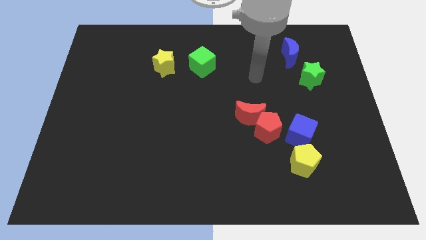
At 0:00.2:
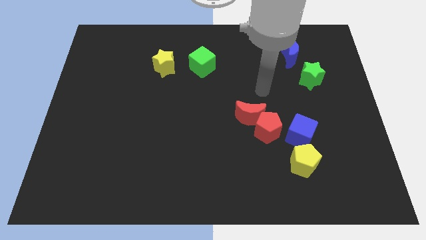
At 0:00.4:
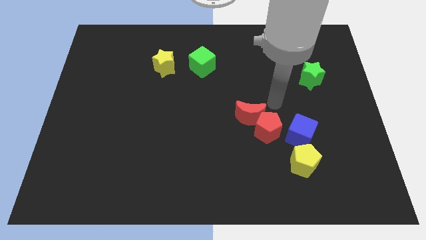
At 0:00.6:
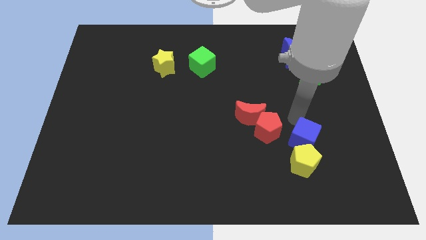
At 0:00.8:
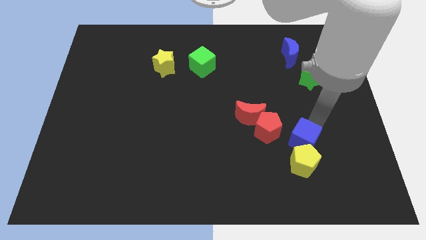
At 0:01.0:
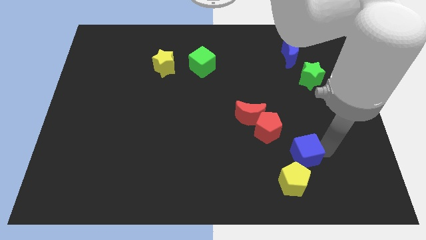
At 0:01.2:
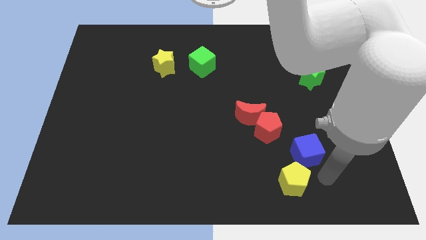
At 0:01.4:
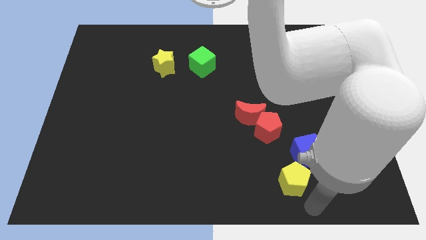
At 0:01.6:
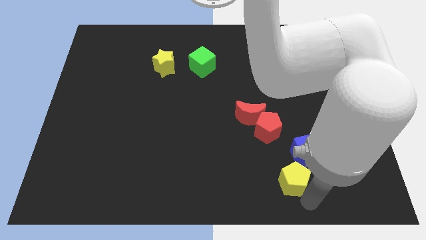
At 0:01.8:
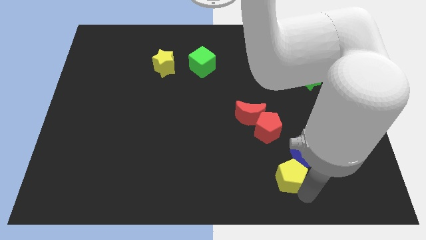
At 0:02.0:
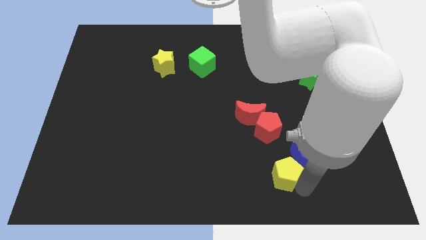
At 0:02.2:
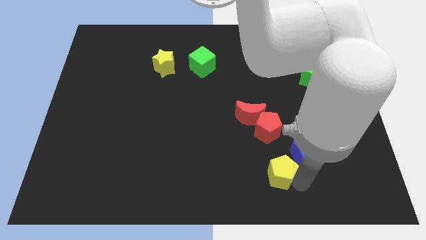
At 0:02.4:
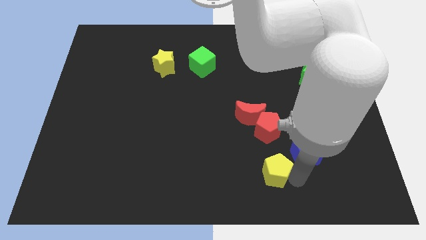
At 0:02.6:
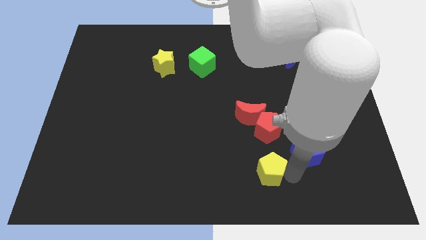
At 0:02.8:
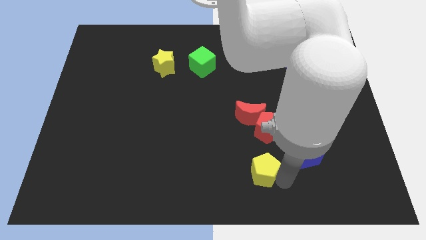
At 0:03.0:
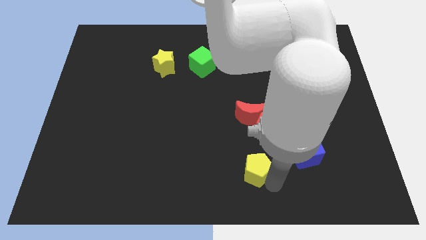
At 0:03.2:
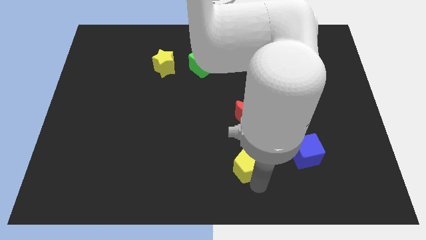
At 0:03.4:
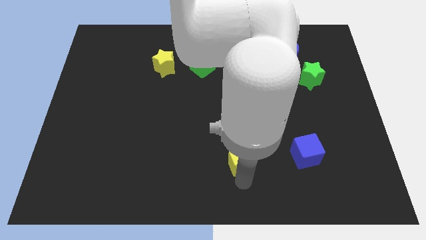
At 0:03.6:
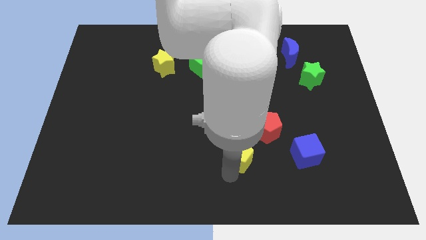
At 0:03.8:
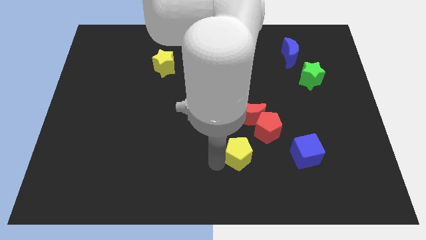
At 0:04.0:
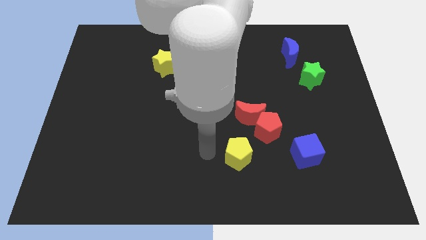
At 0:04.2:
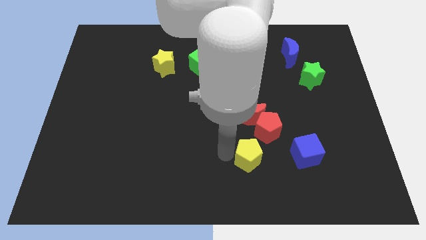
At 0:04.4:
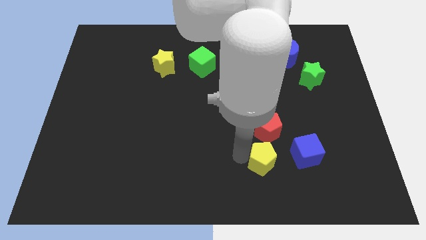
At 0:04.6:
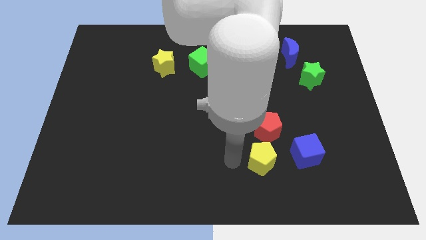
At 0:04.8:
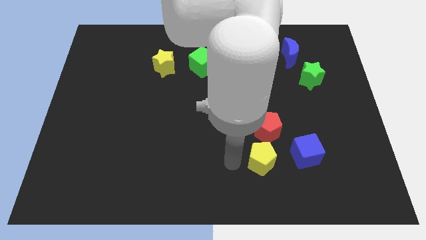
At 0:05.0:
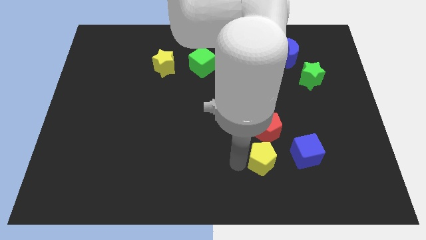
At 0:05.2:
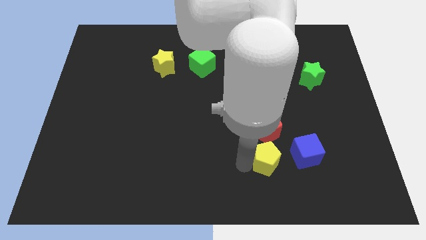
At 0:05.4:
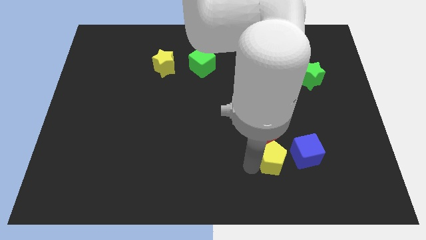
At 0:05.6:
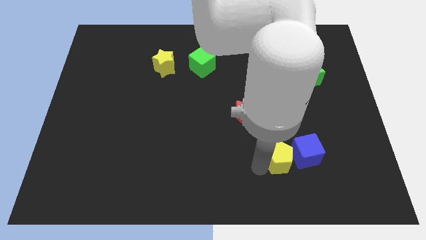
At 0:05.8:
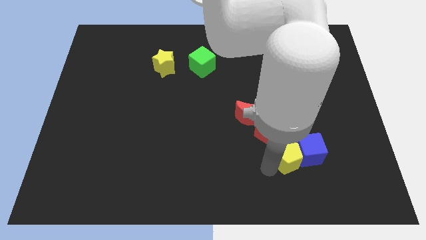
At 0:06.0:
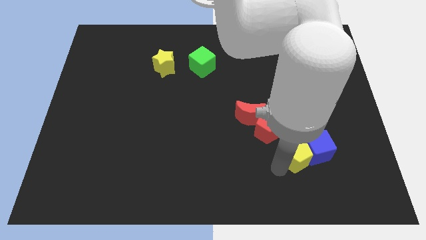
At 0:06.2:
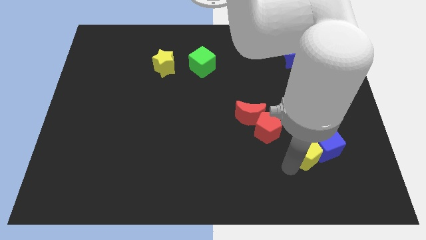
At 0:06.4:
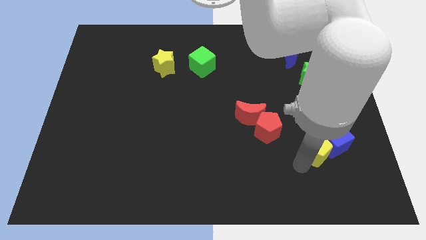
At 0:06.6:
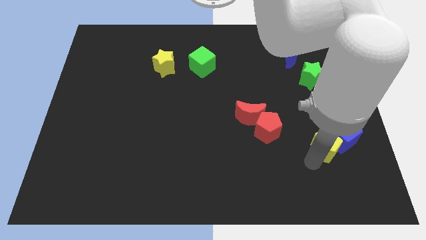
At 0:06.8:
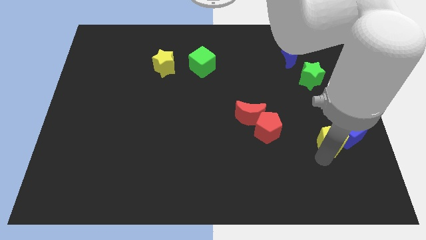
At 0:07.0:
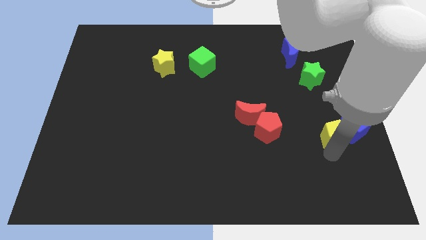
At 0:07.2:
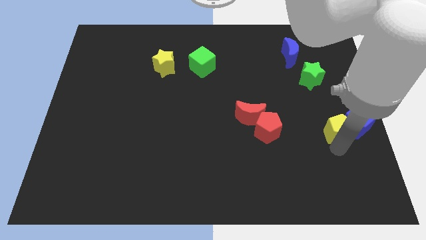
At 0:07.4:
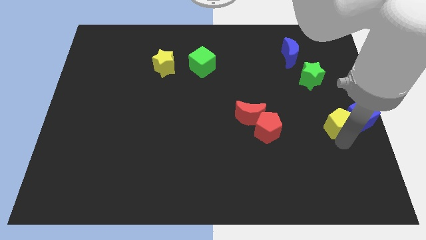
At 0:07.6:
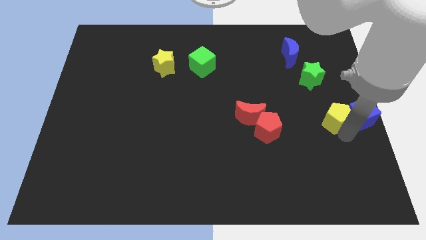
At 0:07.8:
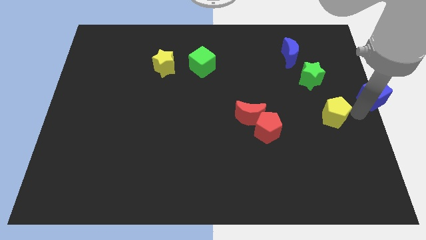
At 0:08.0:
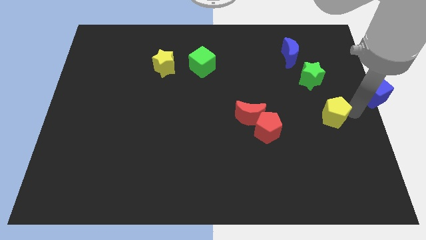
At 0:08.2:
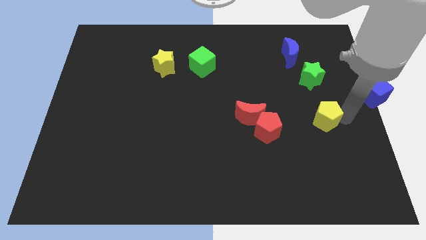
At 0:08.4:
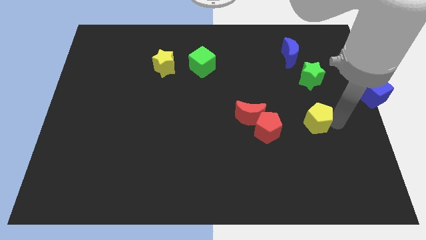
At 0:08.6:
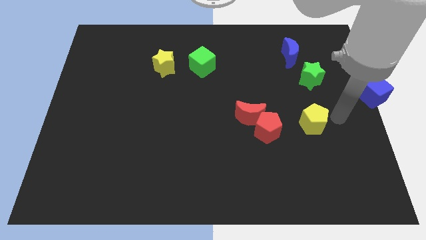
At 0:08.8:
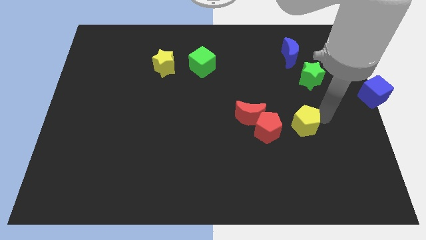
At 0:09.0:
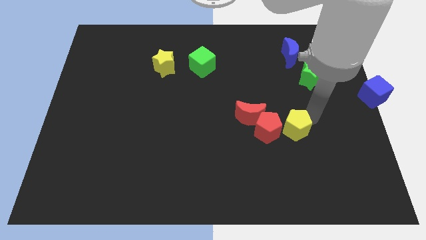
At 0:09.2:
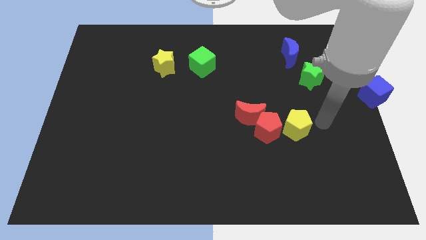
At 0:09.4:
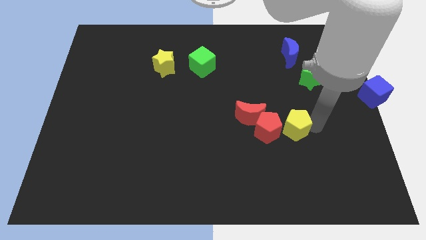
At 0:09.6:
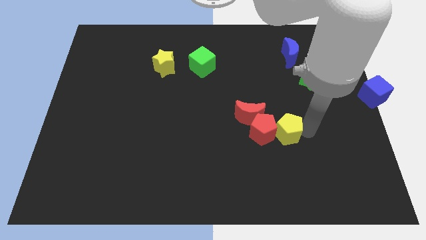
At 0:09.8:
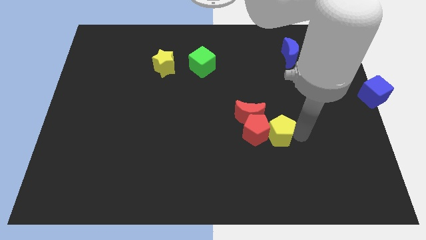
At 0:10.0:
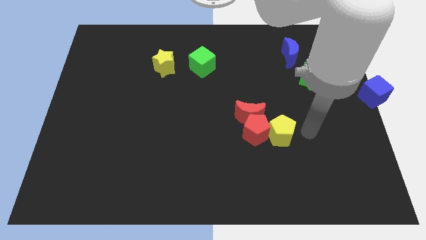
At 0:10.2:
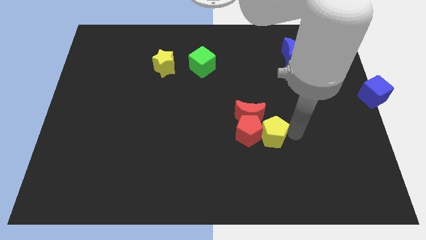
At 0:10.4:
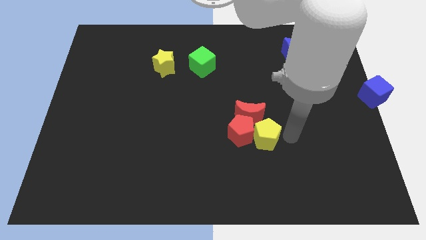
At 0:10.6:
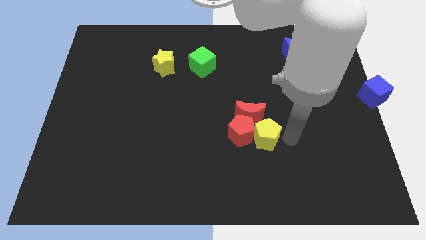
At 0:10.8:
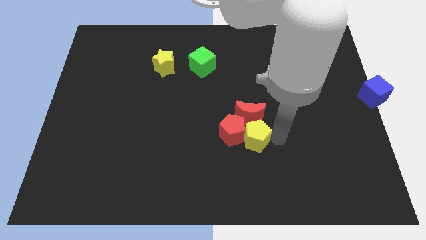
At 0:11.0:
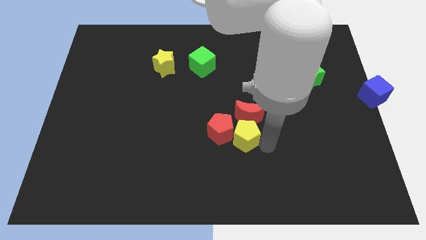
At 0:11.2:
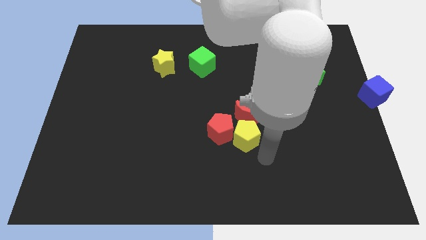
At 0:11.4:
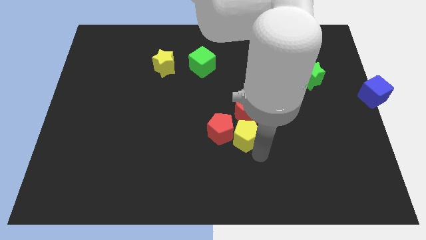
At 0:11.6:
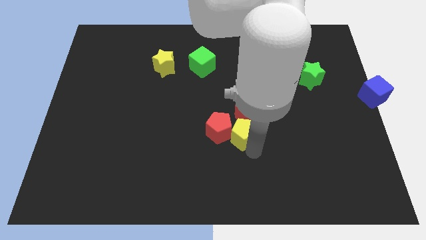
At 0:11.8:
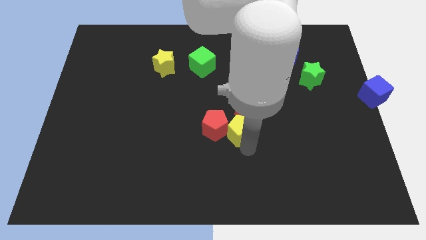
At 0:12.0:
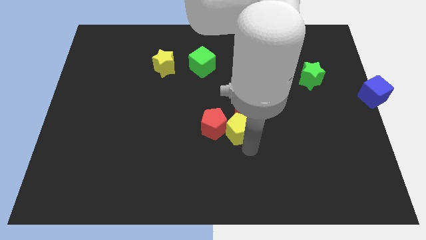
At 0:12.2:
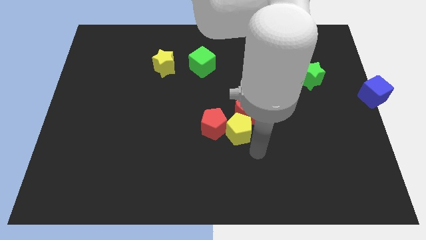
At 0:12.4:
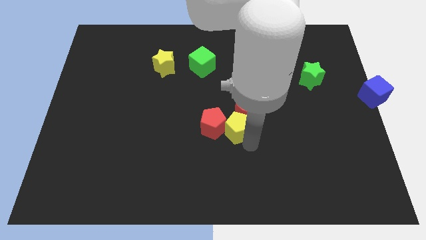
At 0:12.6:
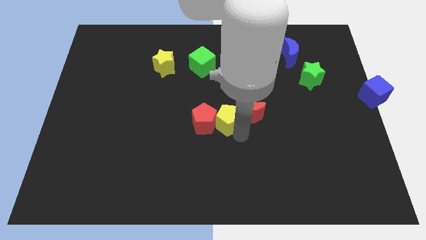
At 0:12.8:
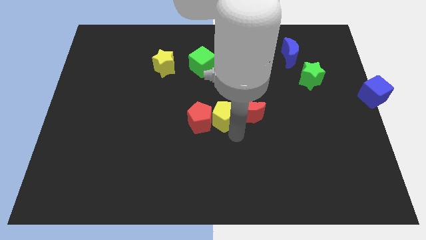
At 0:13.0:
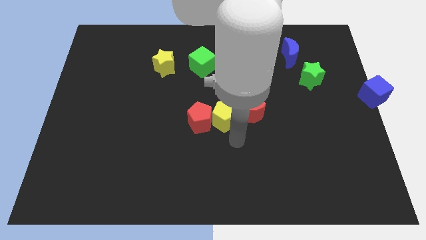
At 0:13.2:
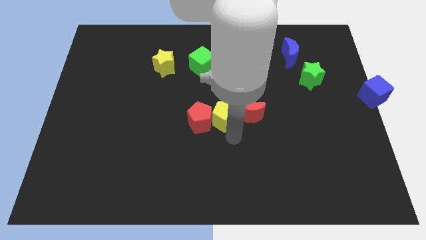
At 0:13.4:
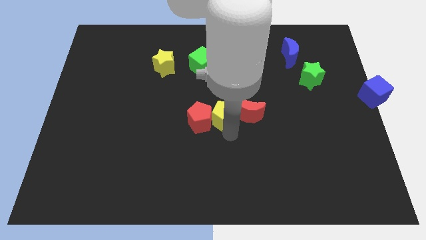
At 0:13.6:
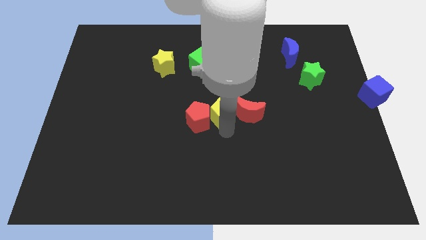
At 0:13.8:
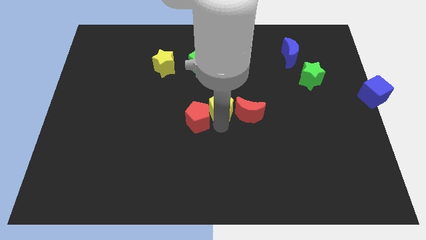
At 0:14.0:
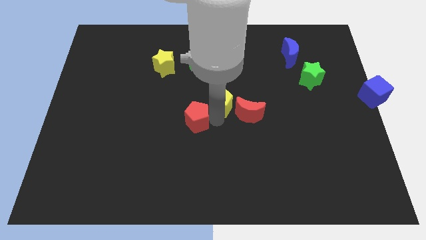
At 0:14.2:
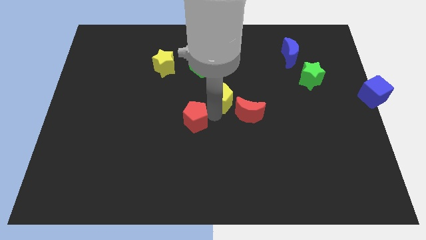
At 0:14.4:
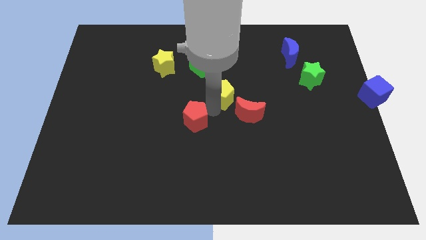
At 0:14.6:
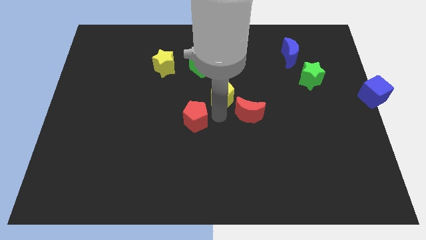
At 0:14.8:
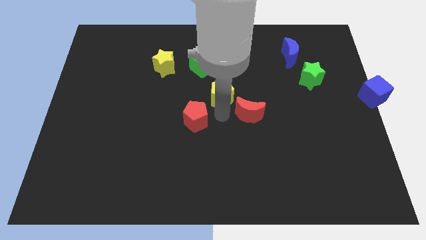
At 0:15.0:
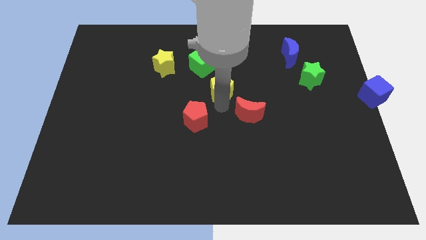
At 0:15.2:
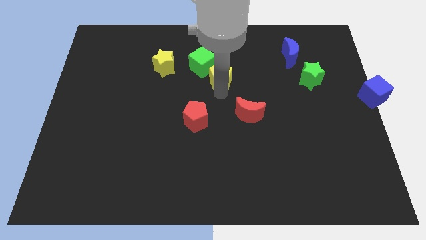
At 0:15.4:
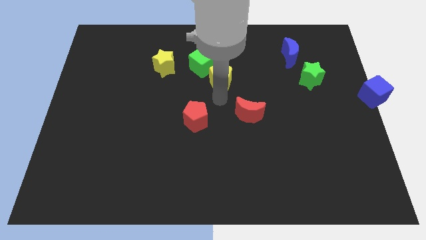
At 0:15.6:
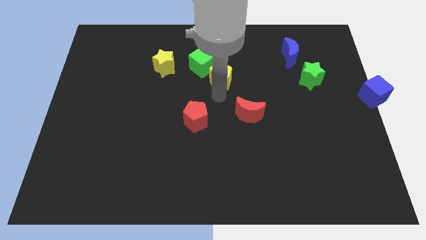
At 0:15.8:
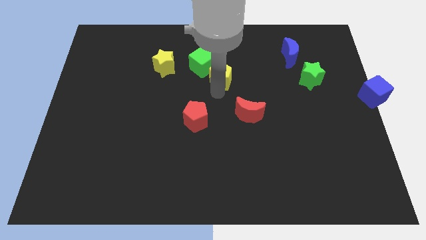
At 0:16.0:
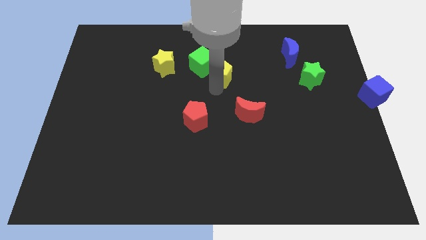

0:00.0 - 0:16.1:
move the yellow pentagon to the right side of the yellow star
